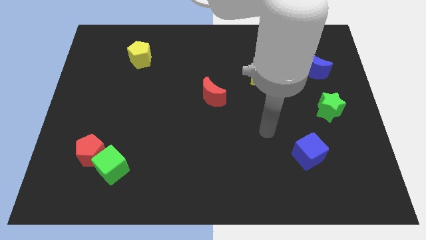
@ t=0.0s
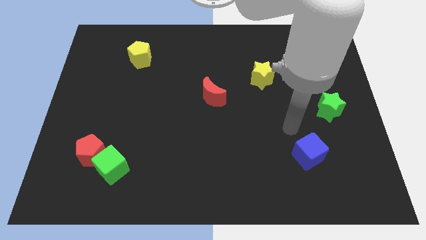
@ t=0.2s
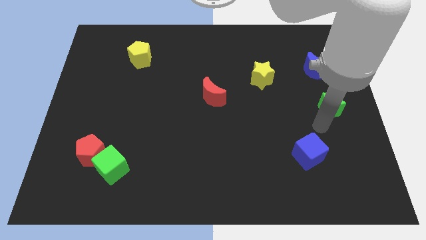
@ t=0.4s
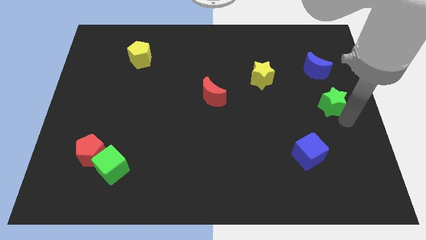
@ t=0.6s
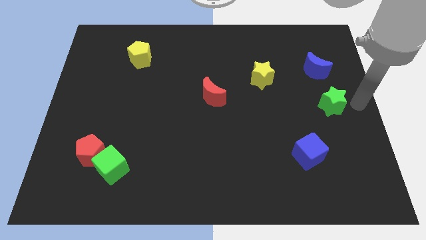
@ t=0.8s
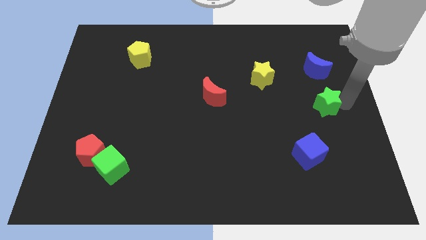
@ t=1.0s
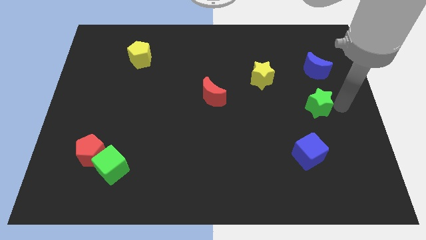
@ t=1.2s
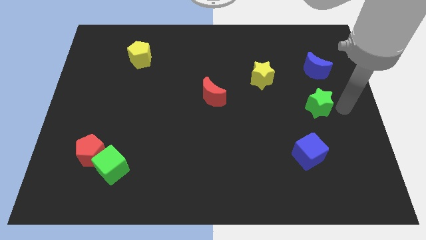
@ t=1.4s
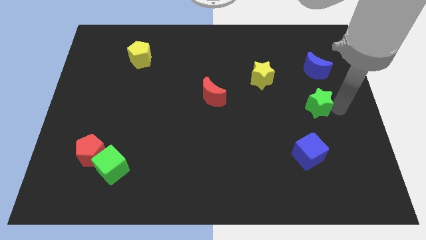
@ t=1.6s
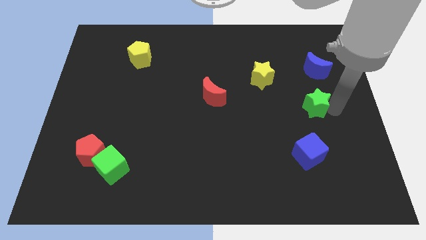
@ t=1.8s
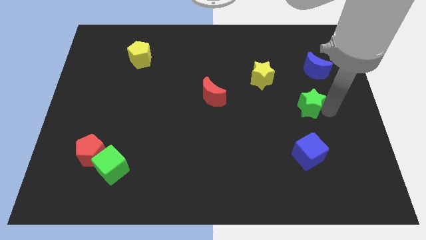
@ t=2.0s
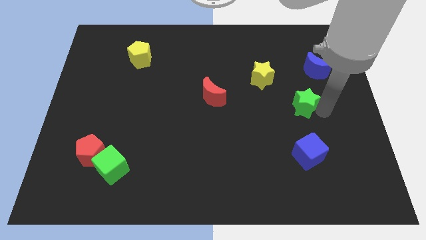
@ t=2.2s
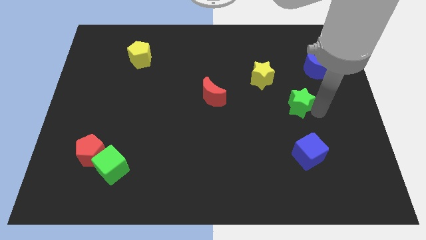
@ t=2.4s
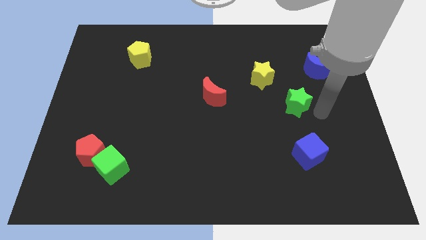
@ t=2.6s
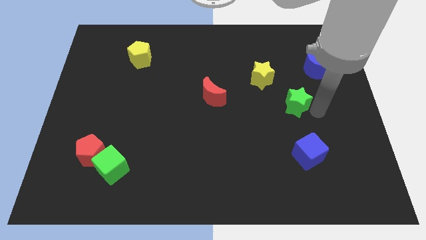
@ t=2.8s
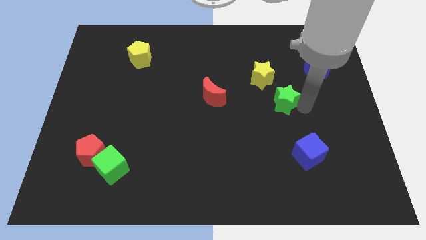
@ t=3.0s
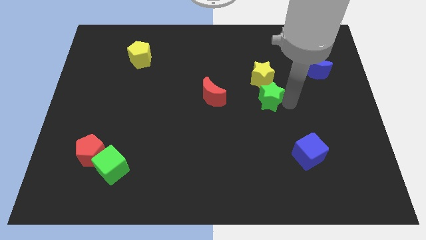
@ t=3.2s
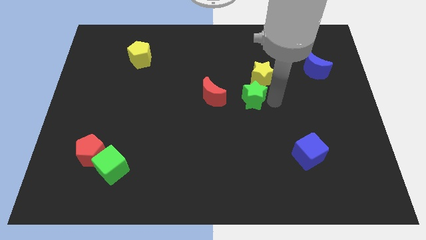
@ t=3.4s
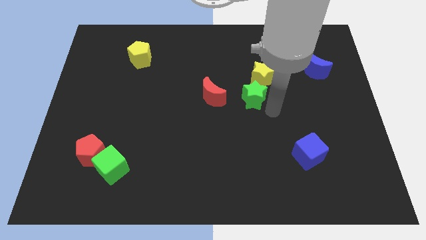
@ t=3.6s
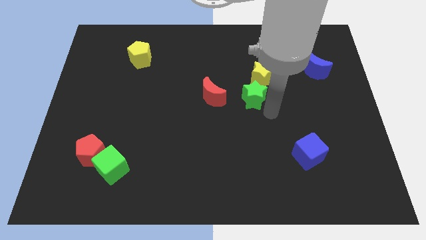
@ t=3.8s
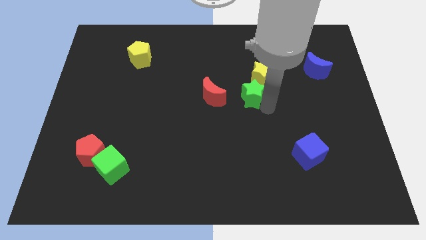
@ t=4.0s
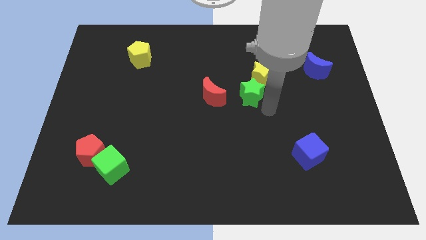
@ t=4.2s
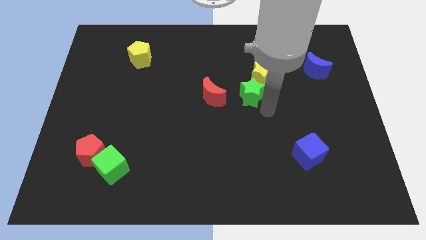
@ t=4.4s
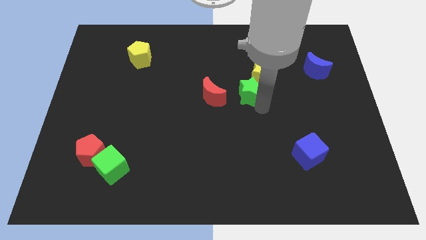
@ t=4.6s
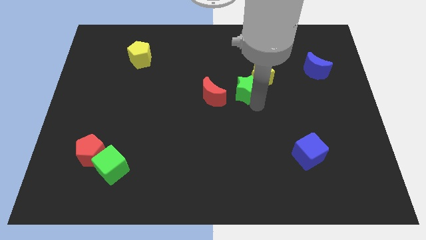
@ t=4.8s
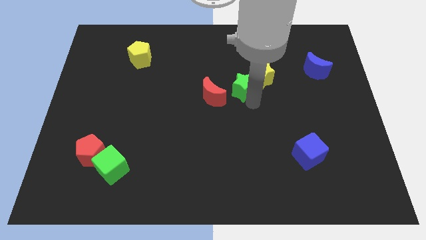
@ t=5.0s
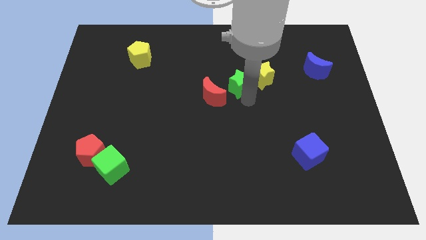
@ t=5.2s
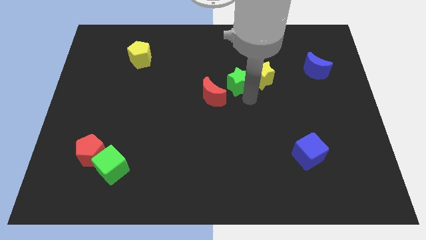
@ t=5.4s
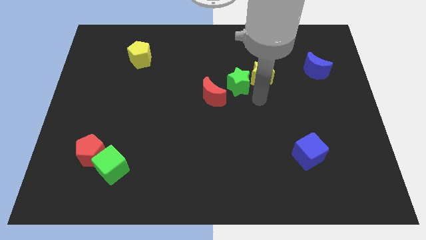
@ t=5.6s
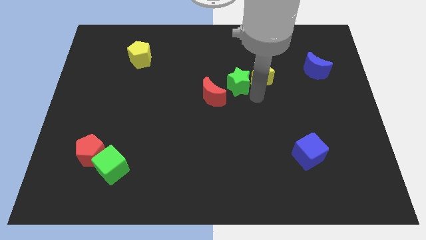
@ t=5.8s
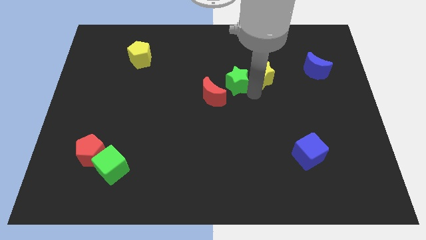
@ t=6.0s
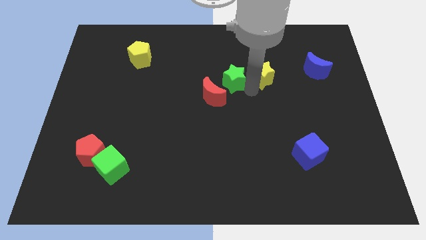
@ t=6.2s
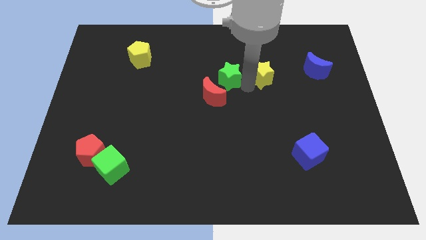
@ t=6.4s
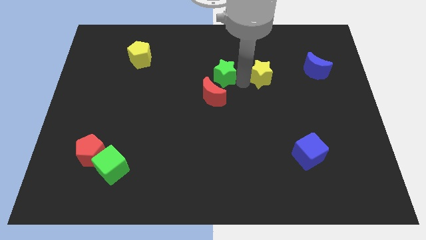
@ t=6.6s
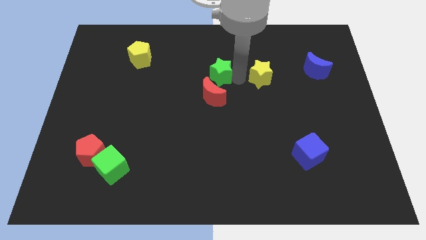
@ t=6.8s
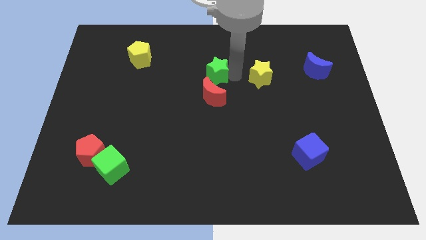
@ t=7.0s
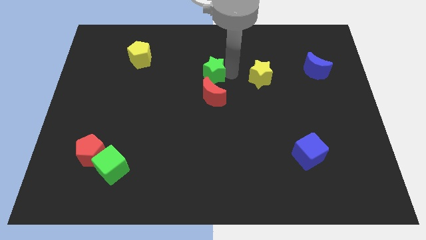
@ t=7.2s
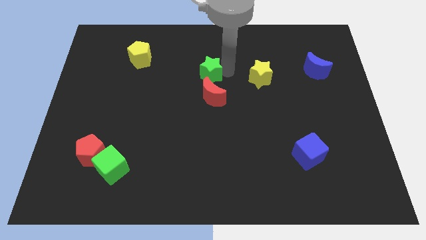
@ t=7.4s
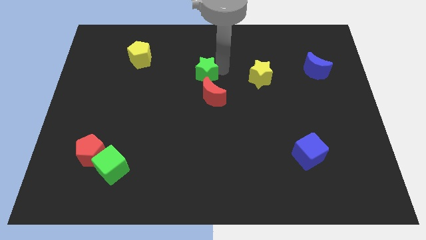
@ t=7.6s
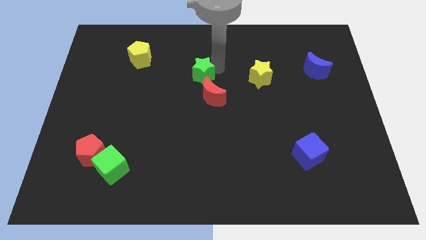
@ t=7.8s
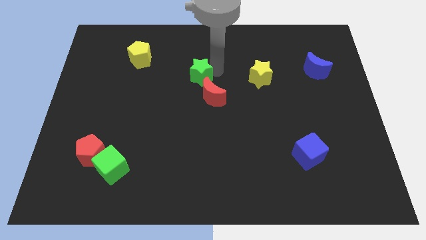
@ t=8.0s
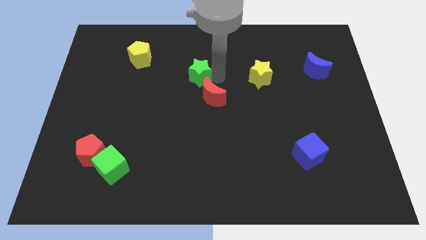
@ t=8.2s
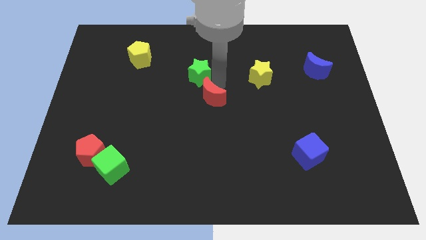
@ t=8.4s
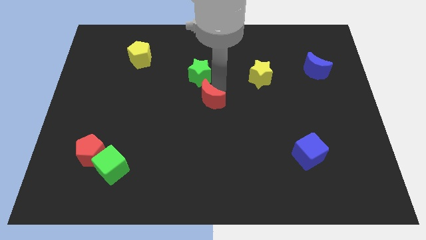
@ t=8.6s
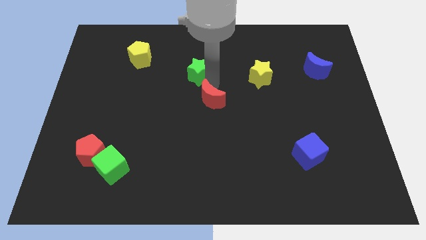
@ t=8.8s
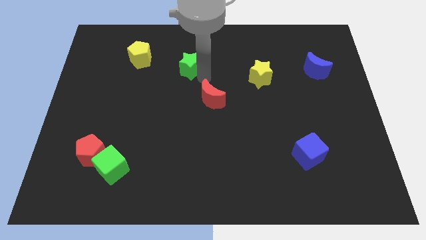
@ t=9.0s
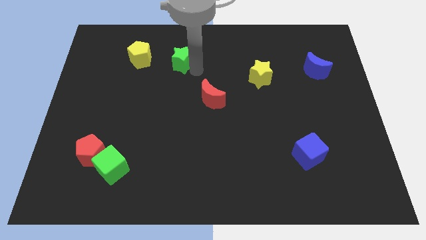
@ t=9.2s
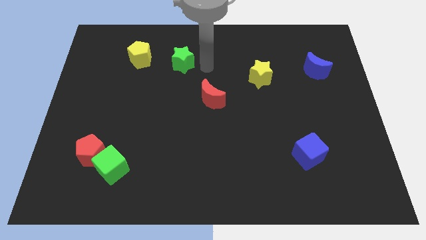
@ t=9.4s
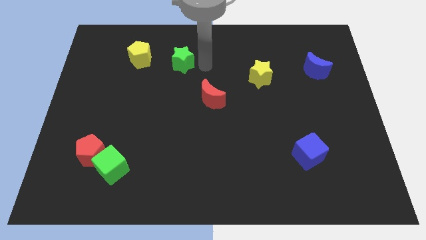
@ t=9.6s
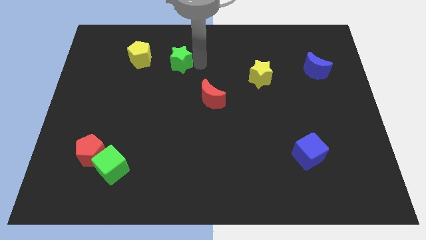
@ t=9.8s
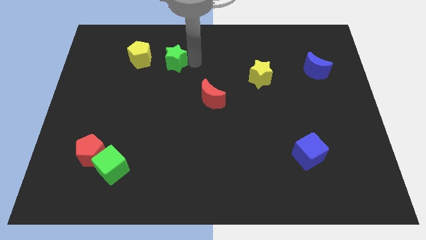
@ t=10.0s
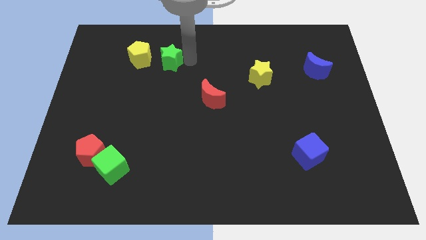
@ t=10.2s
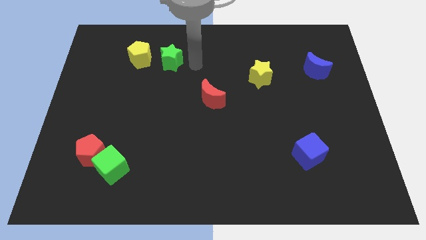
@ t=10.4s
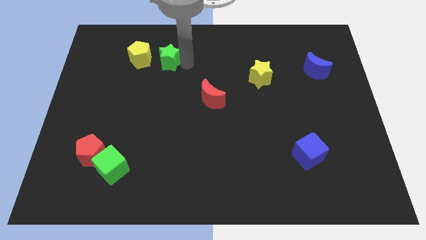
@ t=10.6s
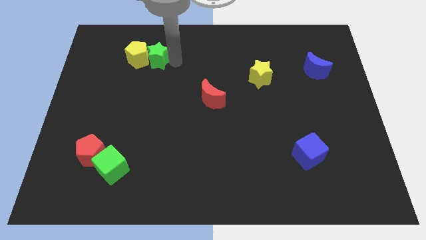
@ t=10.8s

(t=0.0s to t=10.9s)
push the green star next to the yellow pentagon

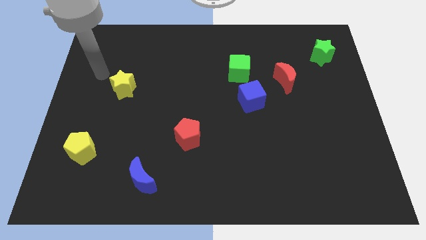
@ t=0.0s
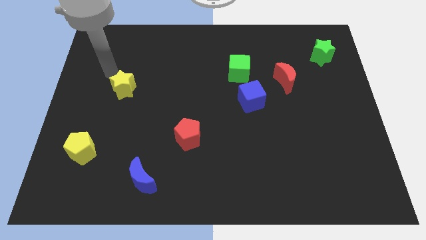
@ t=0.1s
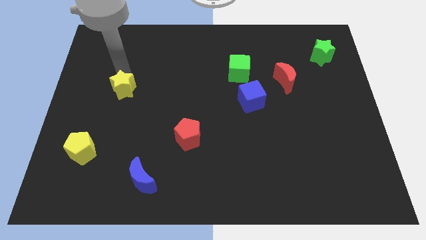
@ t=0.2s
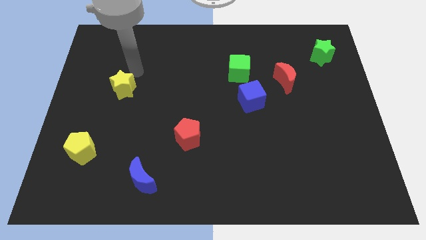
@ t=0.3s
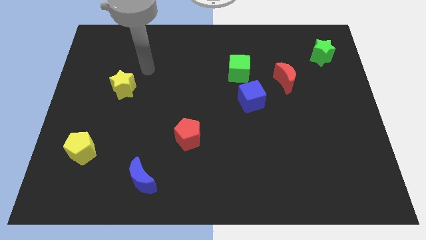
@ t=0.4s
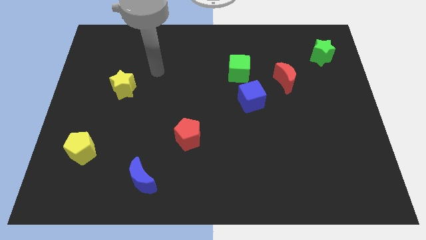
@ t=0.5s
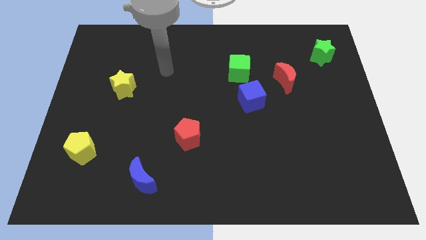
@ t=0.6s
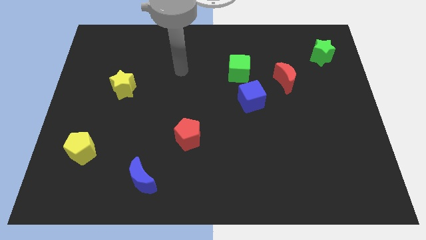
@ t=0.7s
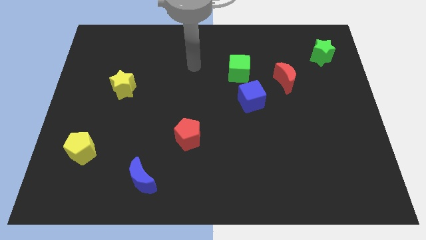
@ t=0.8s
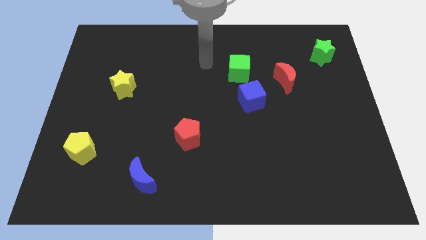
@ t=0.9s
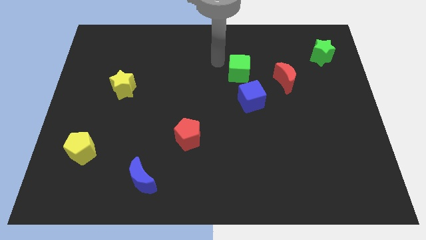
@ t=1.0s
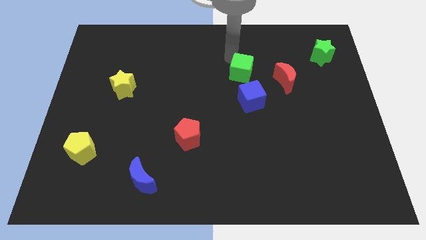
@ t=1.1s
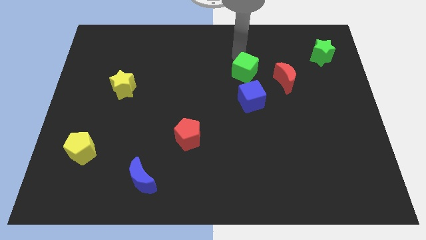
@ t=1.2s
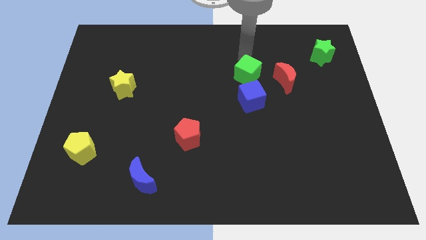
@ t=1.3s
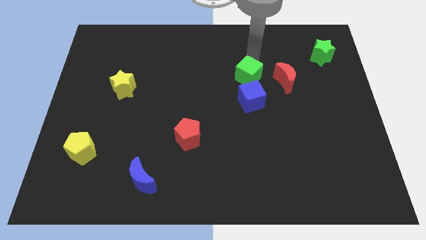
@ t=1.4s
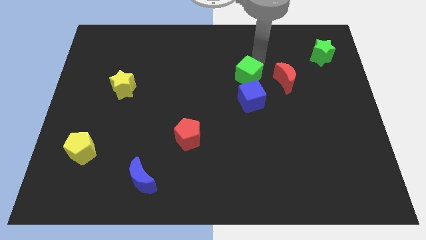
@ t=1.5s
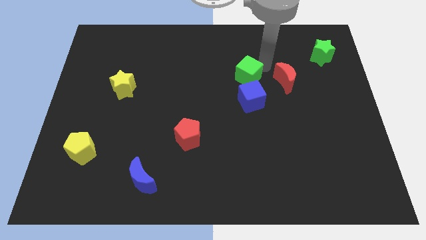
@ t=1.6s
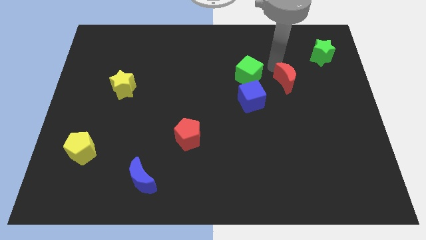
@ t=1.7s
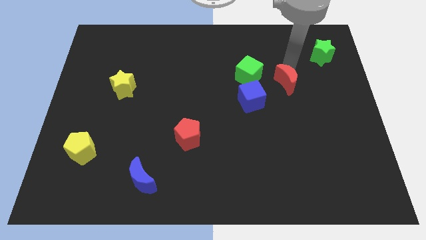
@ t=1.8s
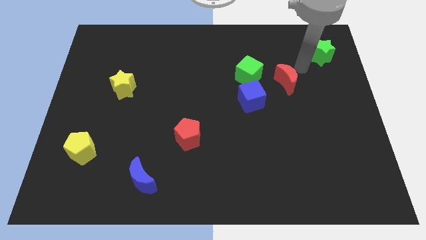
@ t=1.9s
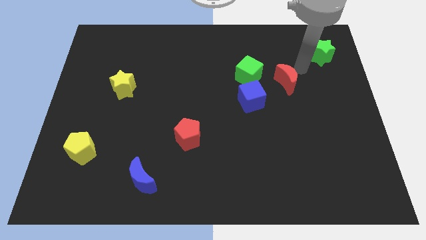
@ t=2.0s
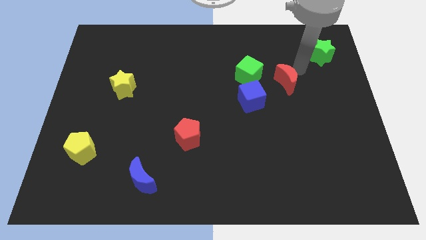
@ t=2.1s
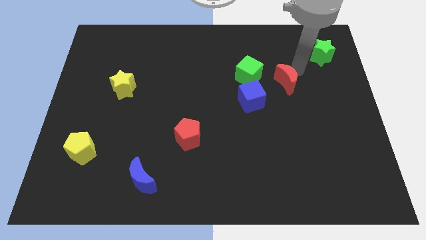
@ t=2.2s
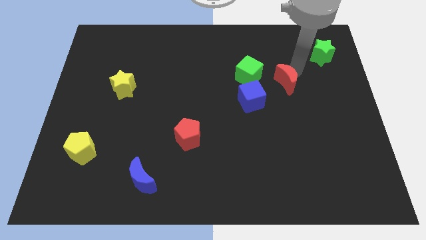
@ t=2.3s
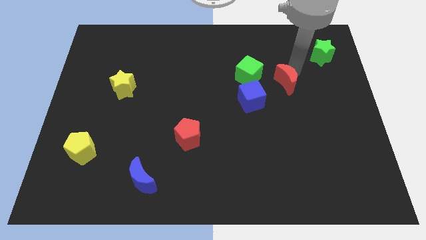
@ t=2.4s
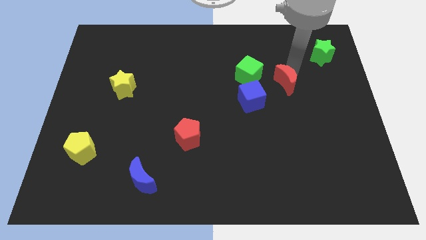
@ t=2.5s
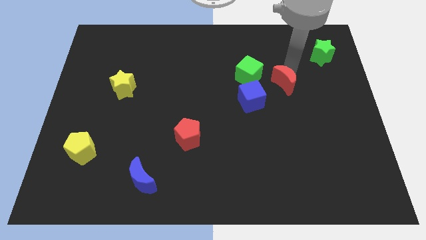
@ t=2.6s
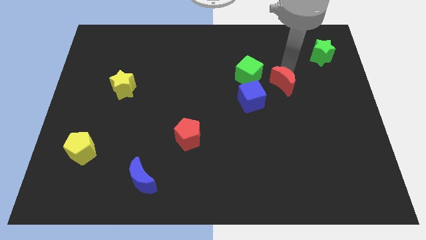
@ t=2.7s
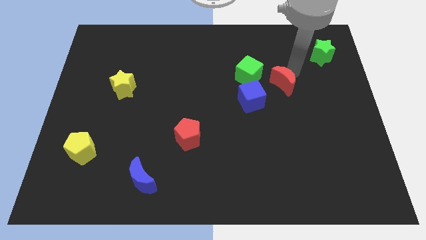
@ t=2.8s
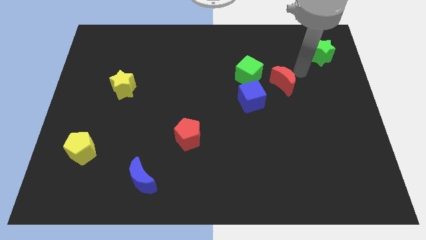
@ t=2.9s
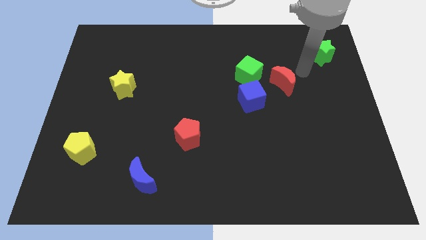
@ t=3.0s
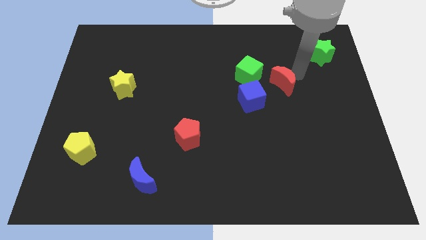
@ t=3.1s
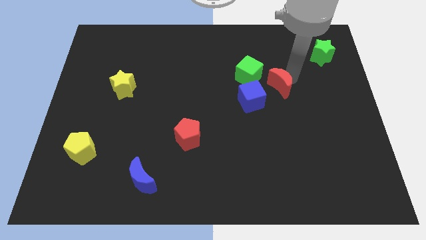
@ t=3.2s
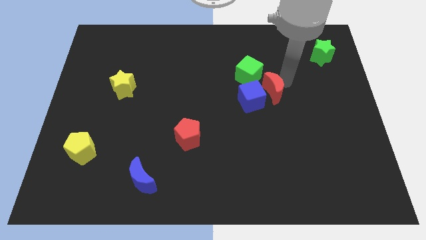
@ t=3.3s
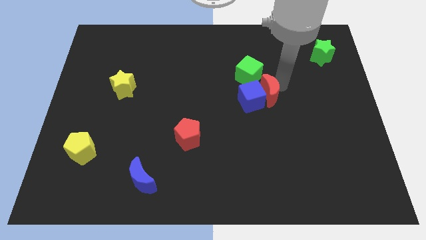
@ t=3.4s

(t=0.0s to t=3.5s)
move the red moon towards the blue cube
